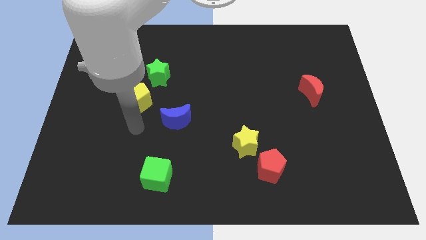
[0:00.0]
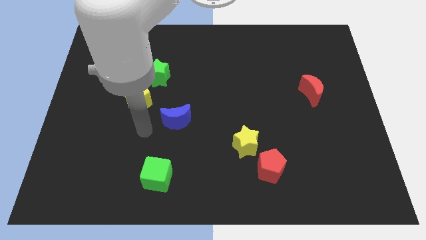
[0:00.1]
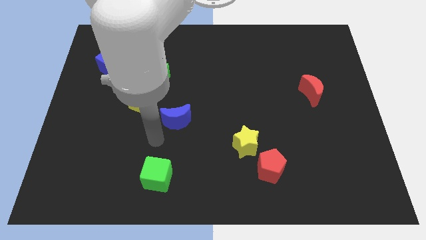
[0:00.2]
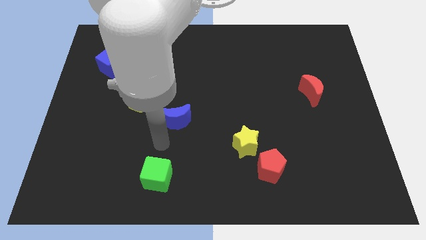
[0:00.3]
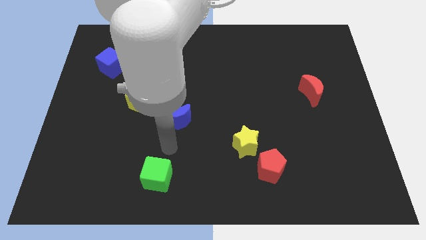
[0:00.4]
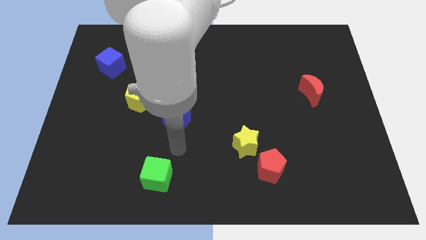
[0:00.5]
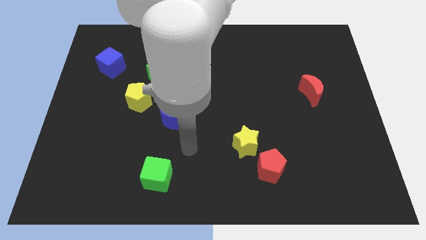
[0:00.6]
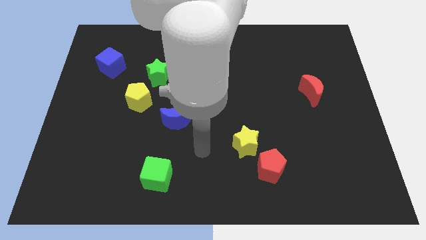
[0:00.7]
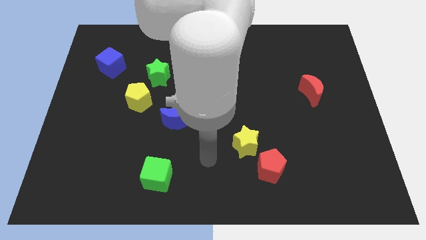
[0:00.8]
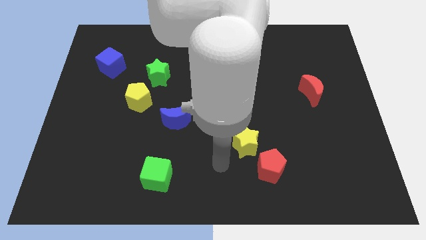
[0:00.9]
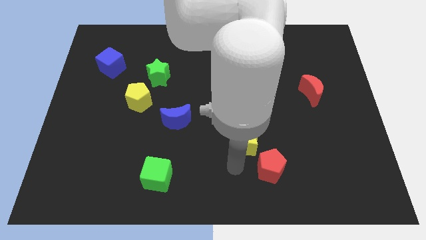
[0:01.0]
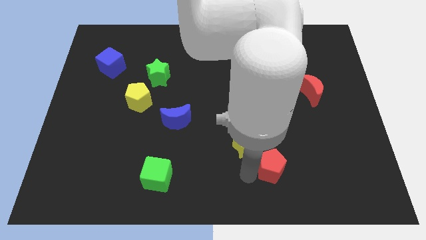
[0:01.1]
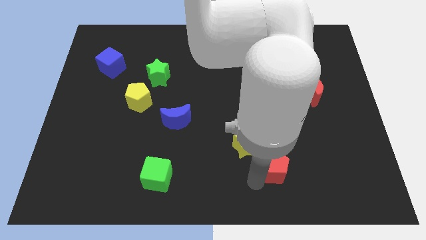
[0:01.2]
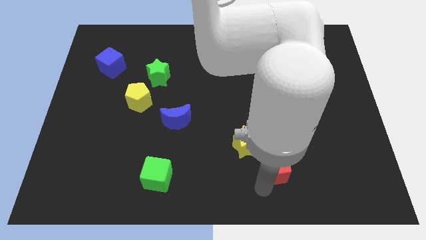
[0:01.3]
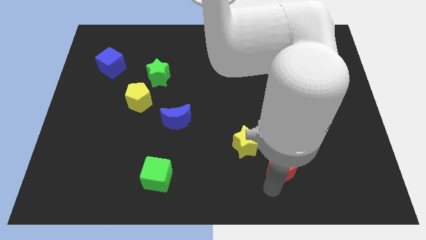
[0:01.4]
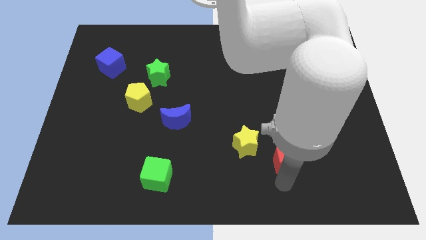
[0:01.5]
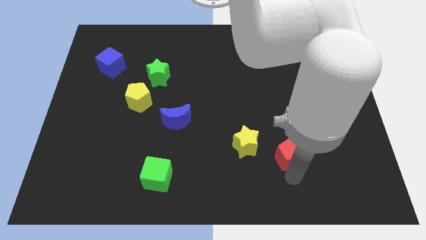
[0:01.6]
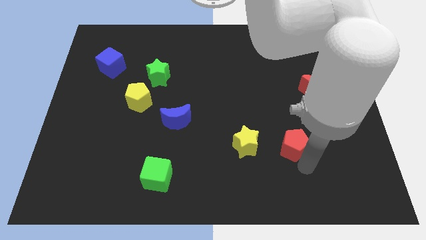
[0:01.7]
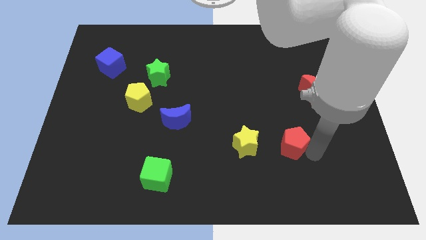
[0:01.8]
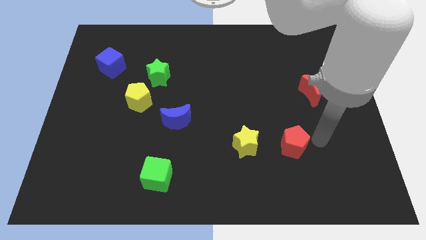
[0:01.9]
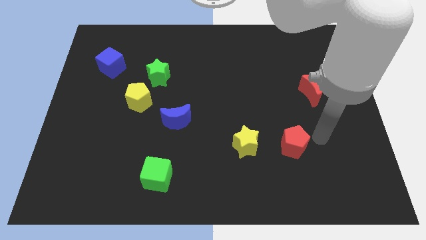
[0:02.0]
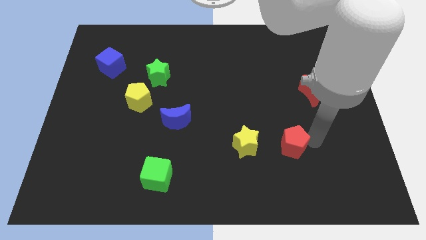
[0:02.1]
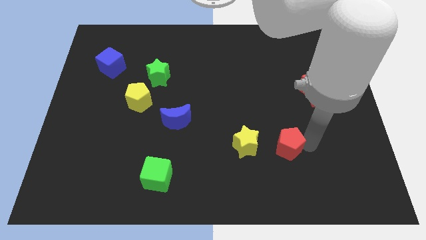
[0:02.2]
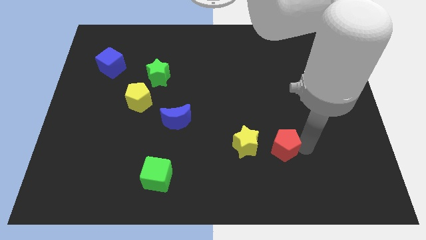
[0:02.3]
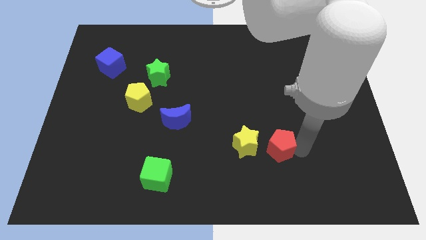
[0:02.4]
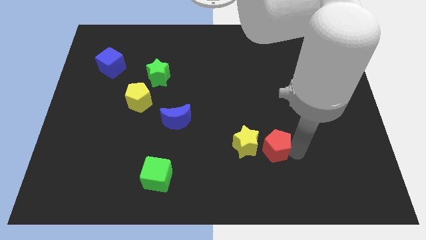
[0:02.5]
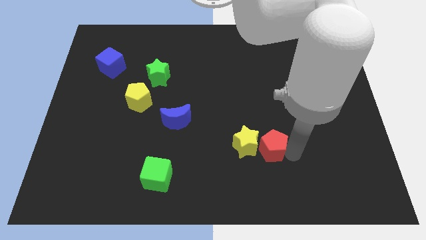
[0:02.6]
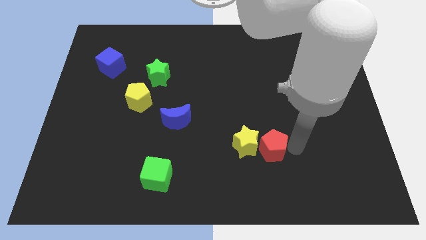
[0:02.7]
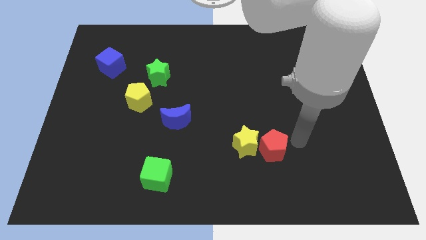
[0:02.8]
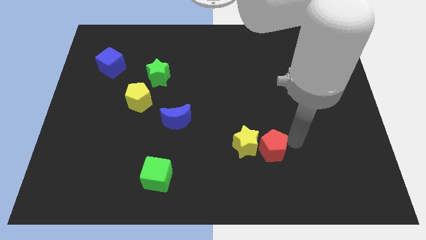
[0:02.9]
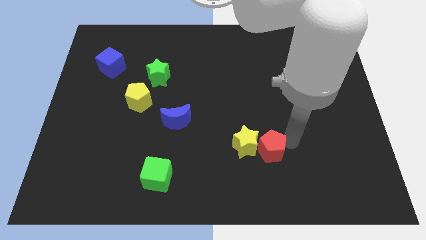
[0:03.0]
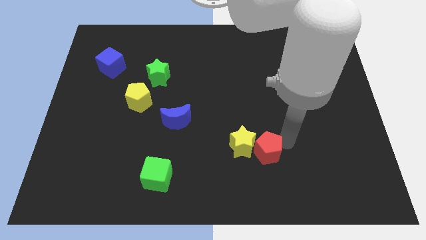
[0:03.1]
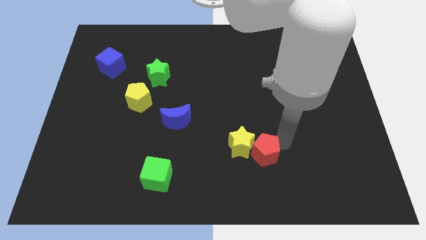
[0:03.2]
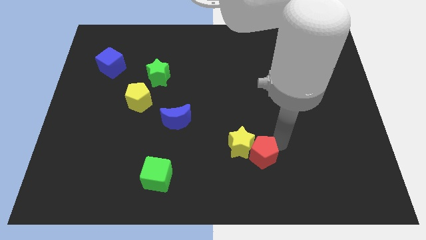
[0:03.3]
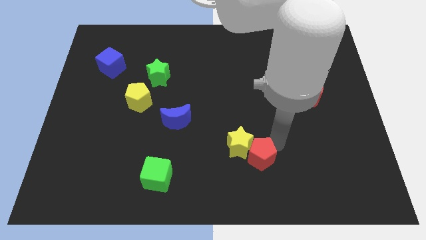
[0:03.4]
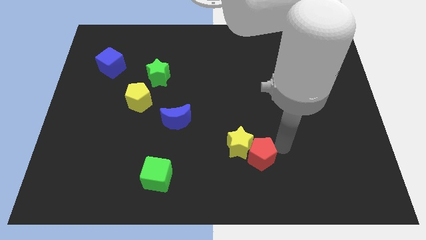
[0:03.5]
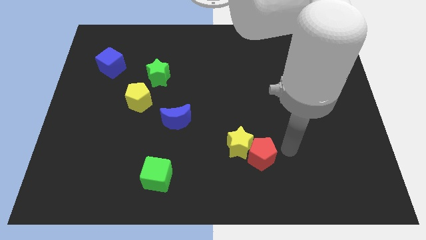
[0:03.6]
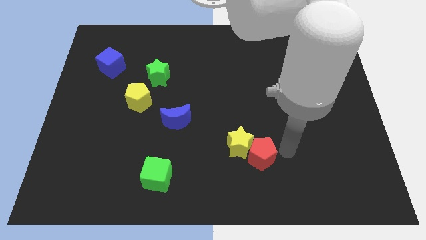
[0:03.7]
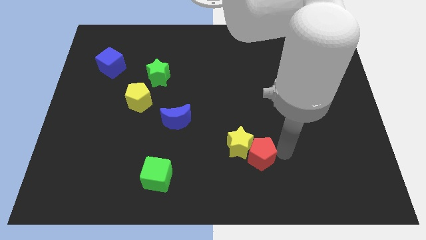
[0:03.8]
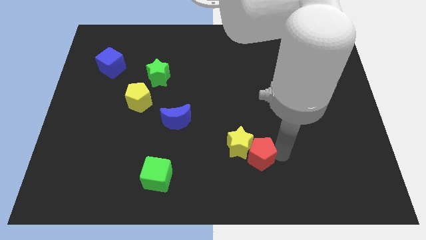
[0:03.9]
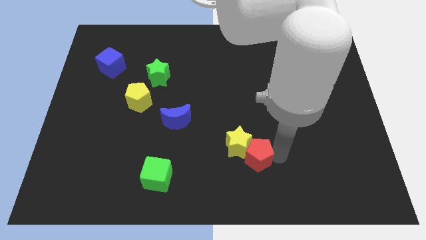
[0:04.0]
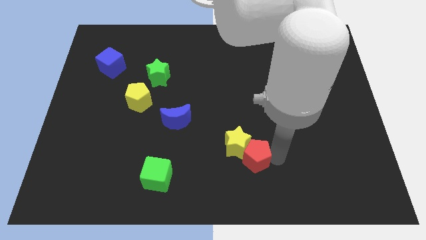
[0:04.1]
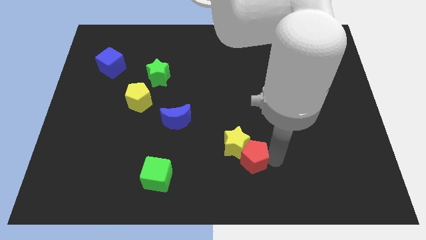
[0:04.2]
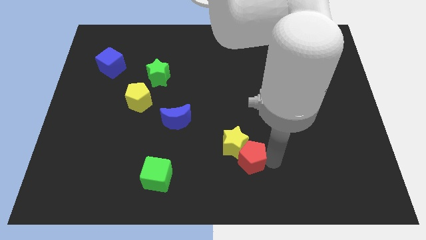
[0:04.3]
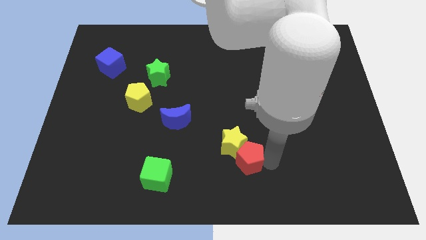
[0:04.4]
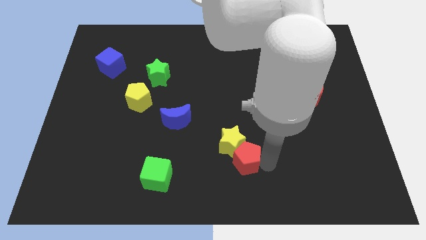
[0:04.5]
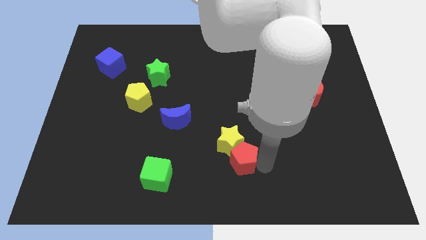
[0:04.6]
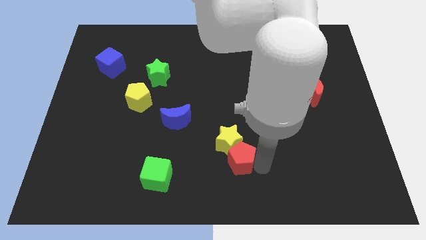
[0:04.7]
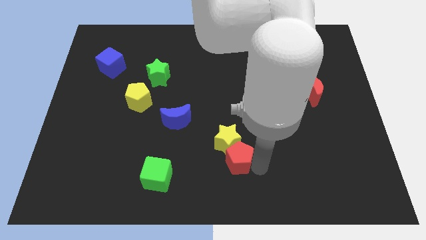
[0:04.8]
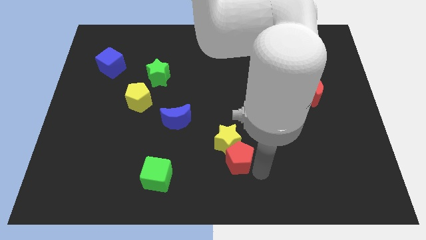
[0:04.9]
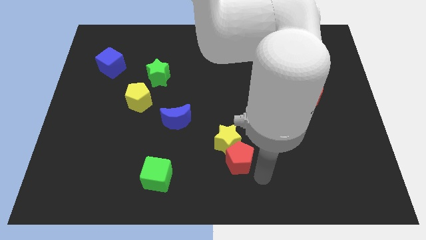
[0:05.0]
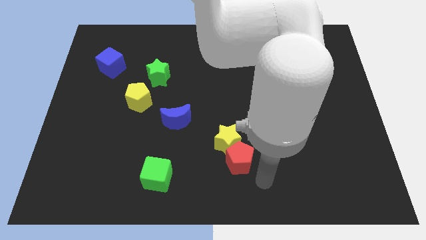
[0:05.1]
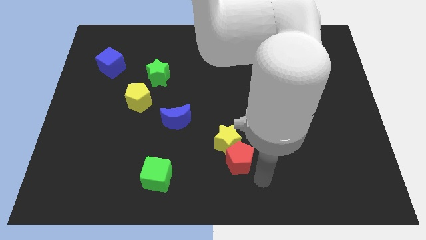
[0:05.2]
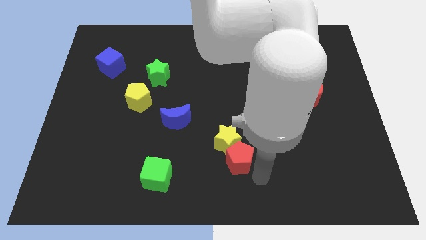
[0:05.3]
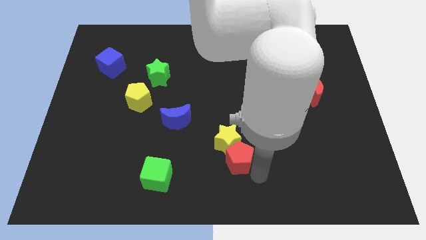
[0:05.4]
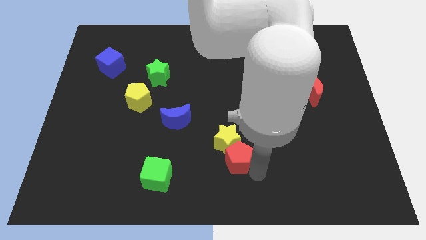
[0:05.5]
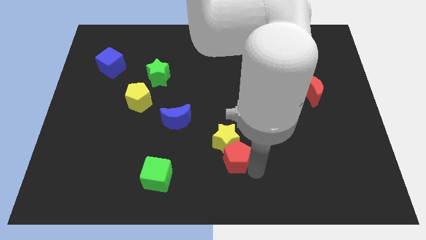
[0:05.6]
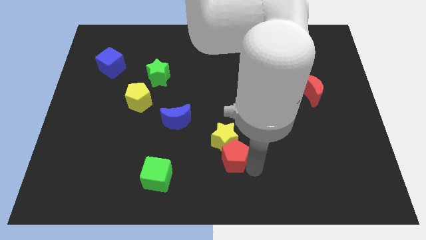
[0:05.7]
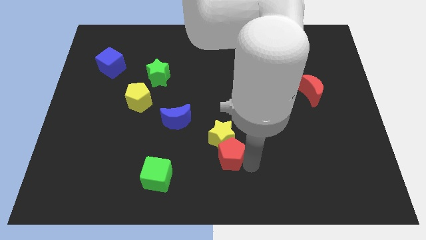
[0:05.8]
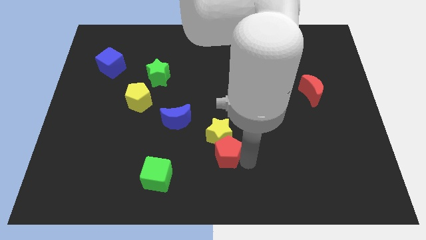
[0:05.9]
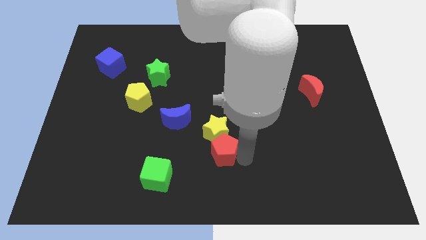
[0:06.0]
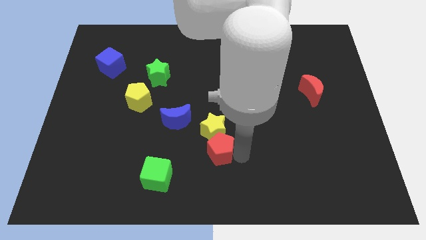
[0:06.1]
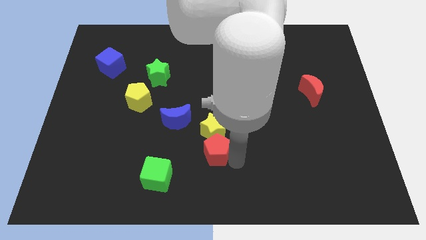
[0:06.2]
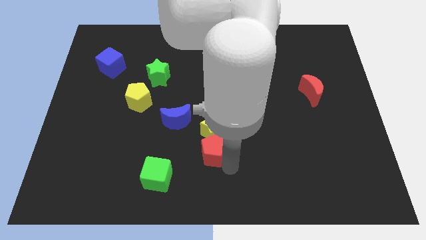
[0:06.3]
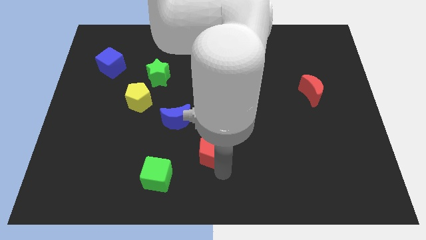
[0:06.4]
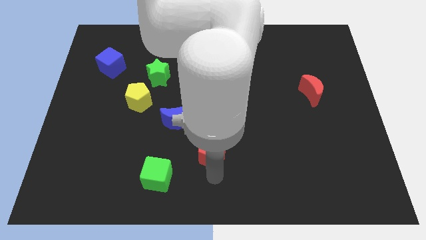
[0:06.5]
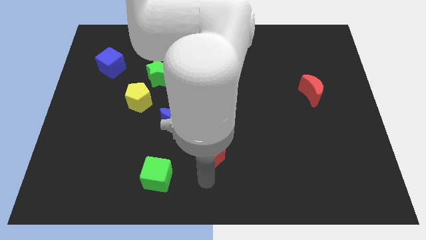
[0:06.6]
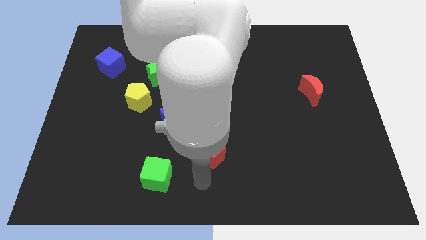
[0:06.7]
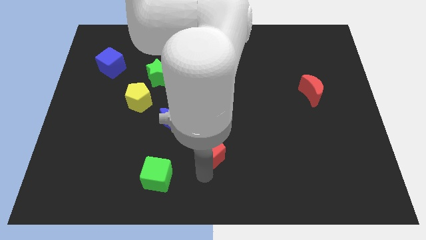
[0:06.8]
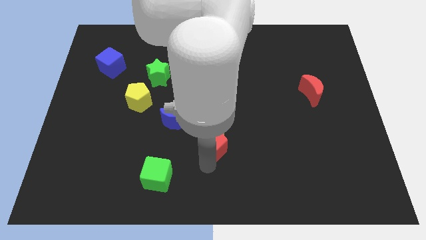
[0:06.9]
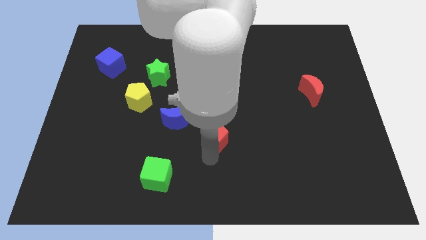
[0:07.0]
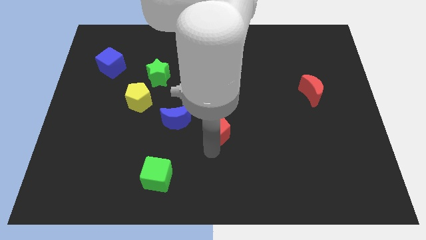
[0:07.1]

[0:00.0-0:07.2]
push the red pentagon just right of the blue moon

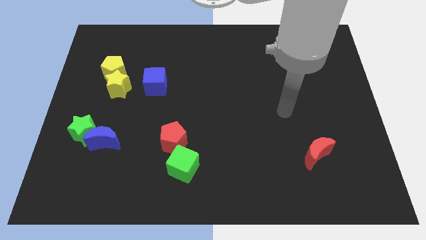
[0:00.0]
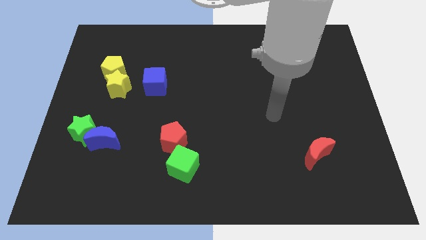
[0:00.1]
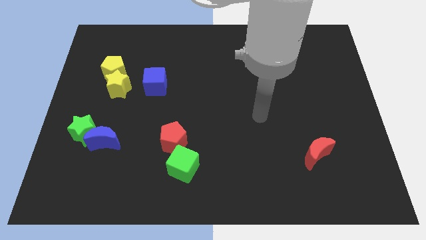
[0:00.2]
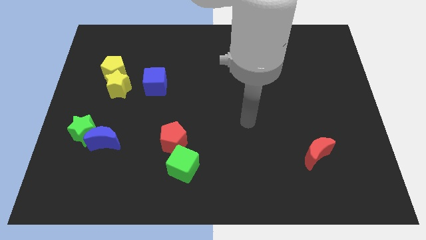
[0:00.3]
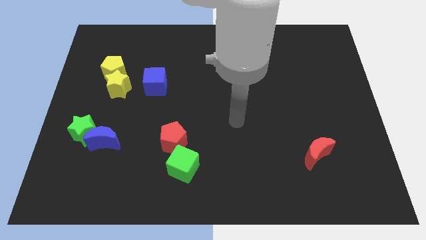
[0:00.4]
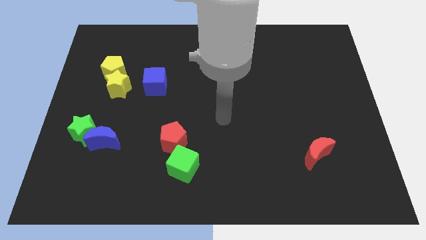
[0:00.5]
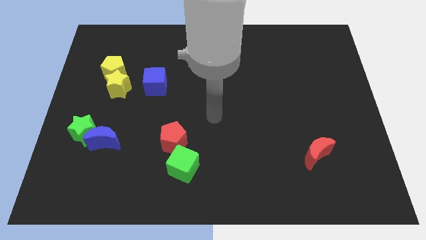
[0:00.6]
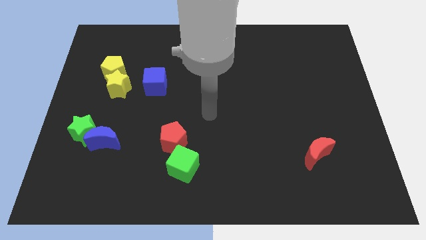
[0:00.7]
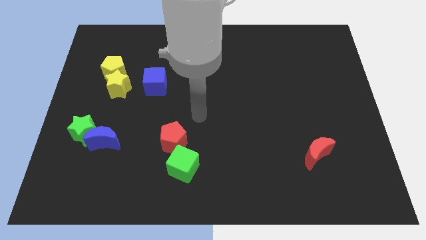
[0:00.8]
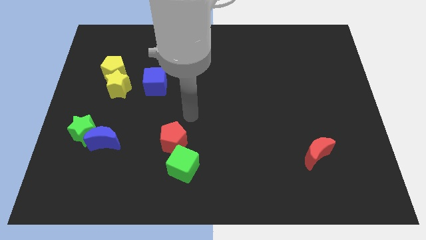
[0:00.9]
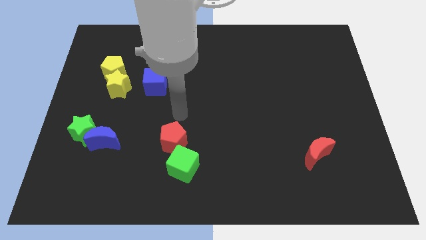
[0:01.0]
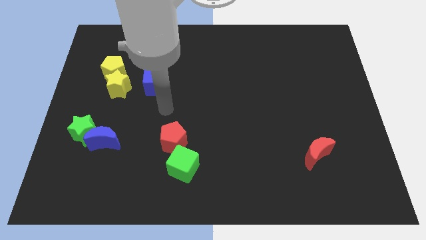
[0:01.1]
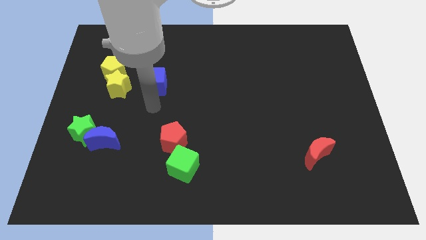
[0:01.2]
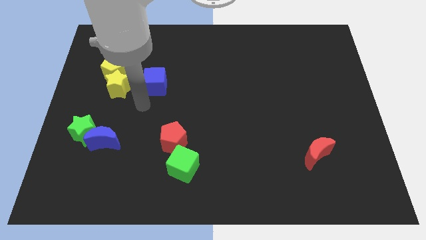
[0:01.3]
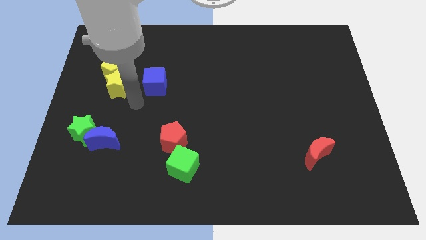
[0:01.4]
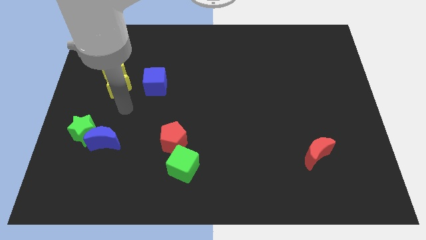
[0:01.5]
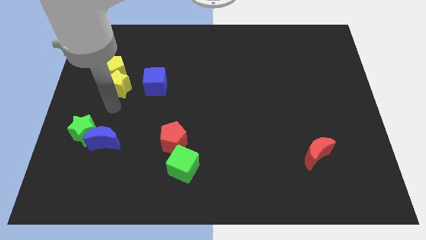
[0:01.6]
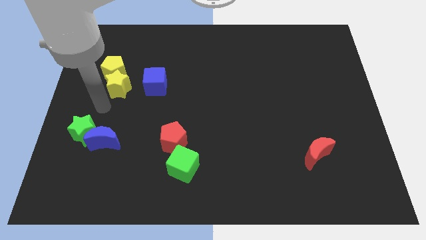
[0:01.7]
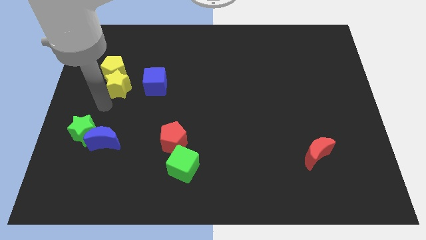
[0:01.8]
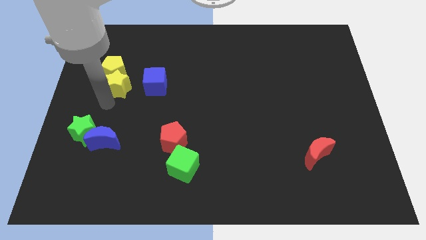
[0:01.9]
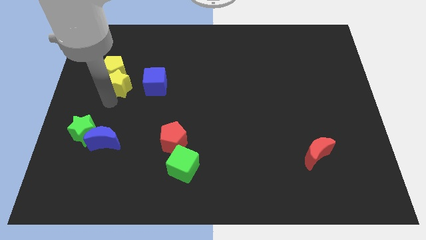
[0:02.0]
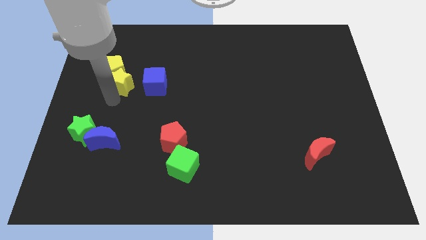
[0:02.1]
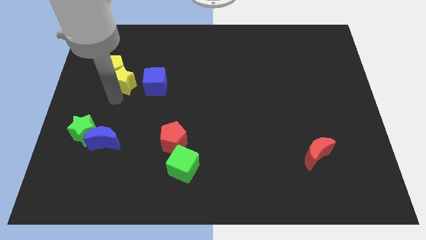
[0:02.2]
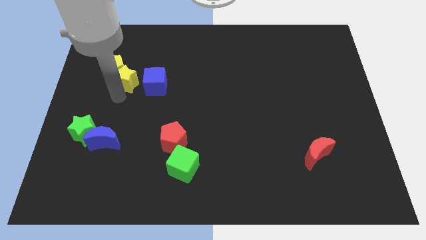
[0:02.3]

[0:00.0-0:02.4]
push the yellow star diagonally up and to the left of the blue cube
